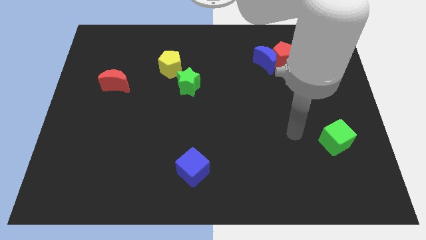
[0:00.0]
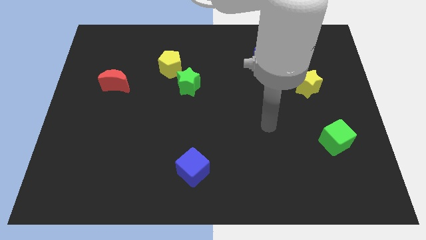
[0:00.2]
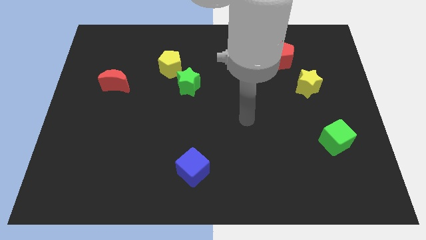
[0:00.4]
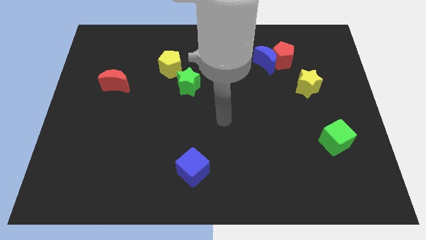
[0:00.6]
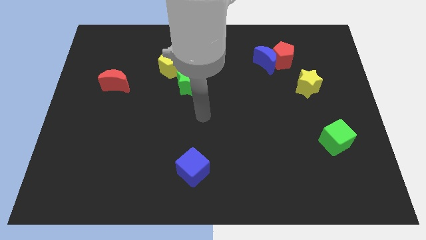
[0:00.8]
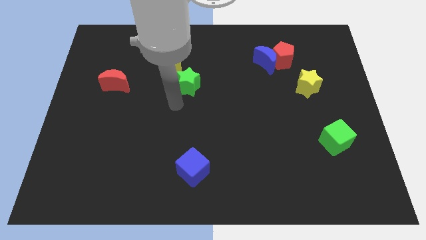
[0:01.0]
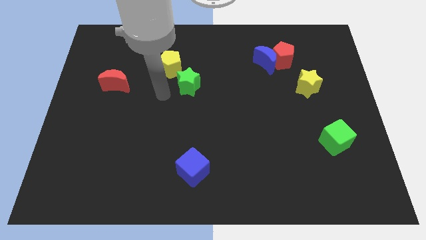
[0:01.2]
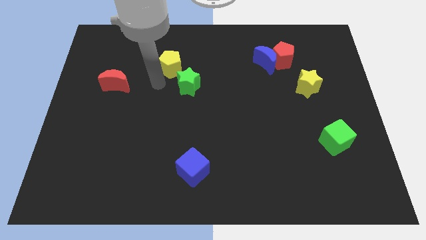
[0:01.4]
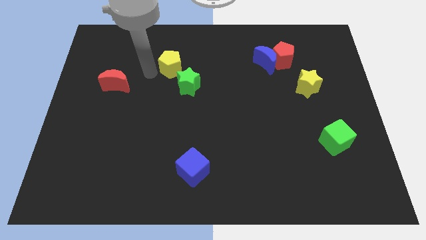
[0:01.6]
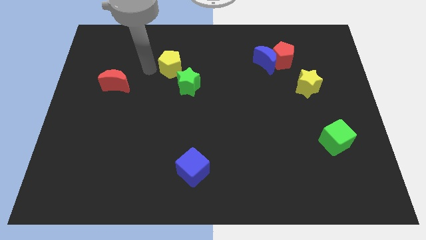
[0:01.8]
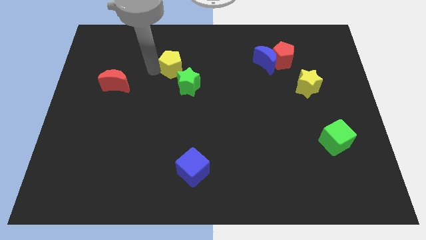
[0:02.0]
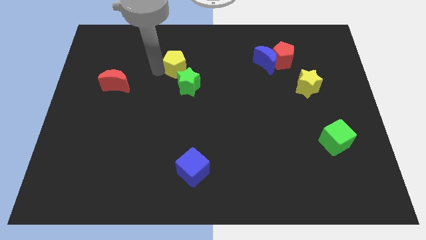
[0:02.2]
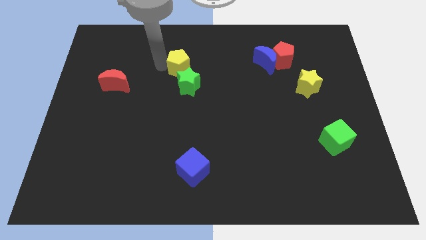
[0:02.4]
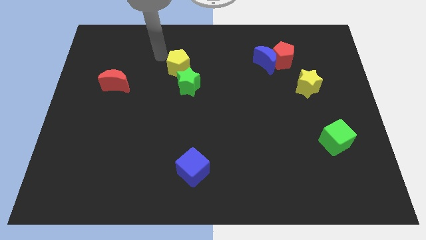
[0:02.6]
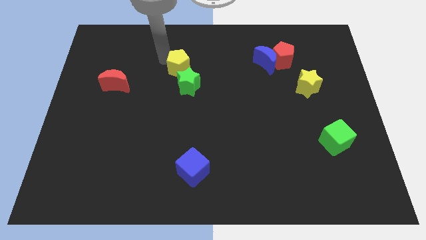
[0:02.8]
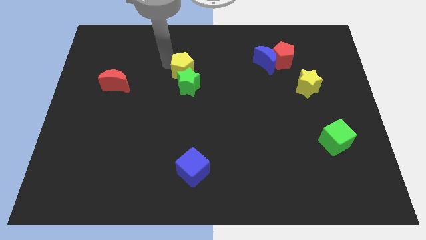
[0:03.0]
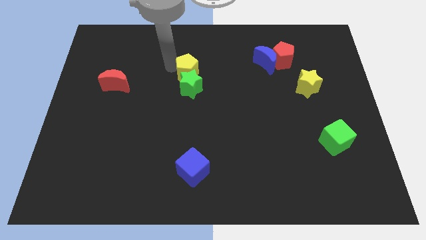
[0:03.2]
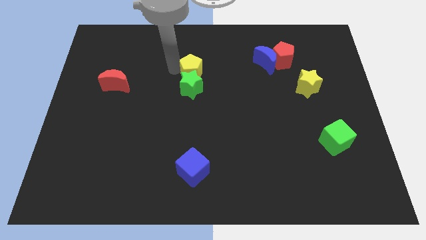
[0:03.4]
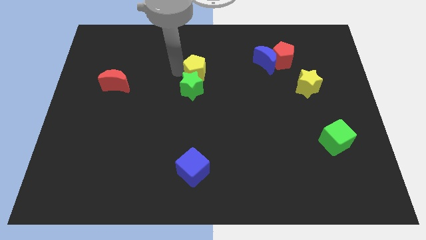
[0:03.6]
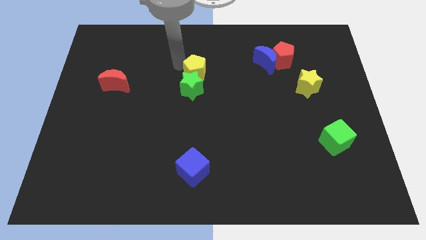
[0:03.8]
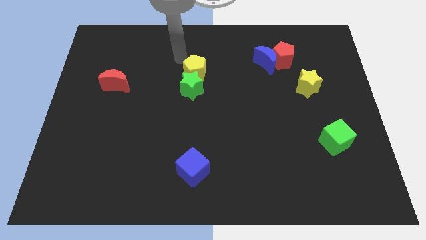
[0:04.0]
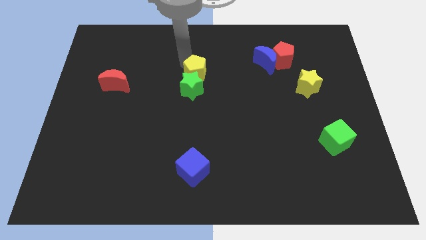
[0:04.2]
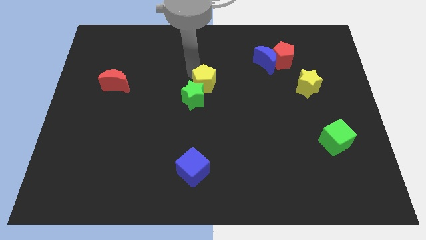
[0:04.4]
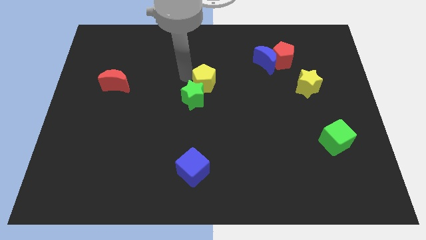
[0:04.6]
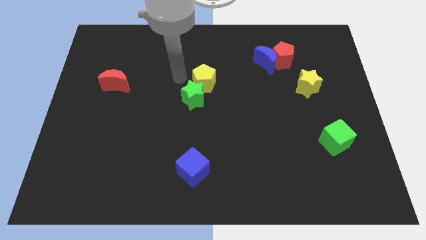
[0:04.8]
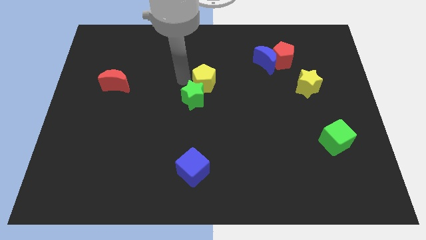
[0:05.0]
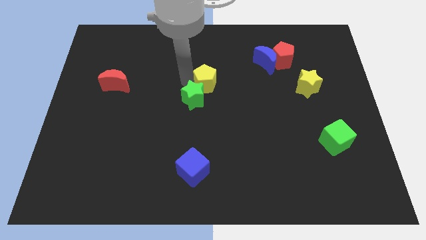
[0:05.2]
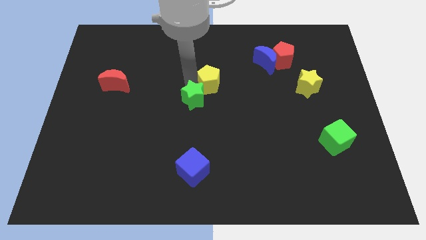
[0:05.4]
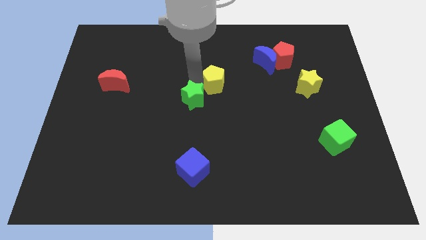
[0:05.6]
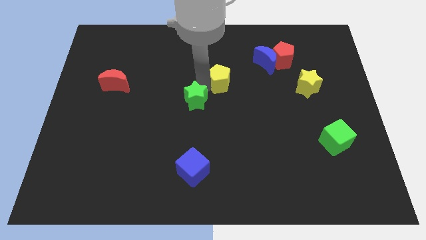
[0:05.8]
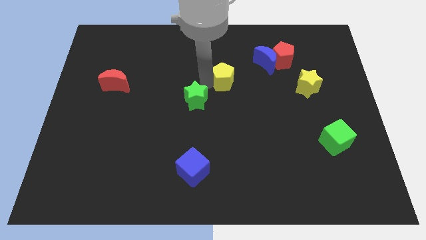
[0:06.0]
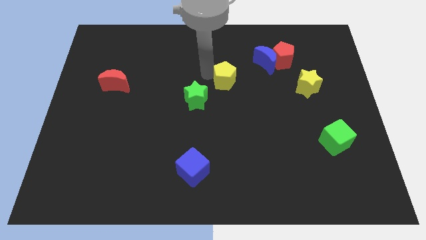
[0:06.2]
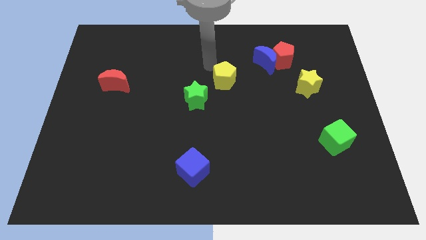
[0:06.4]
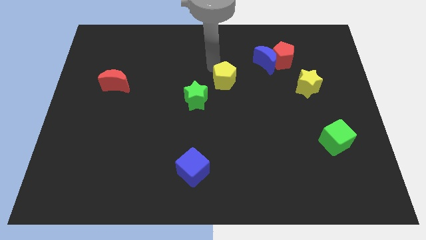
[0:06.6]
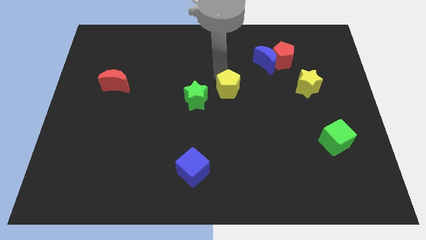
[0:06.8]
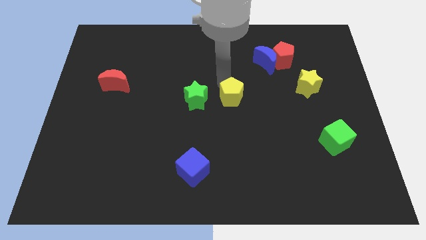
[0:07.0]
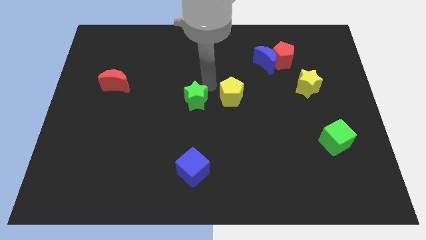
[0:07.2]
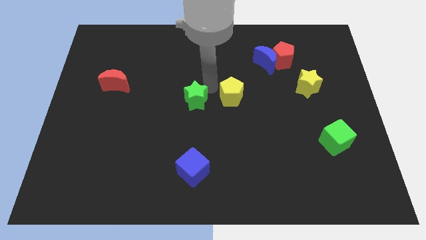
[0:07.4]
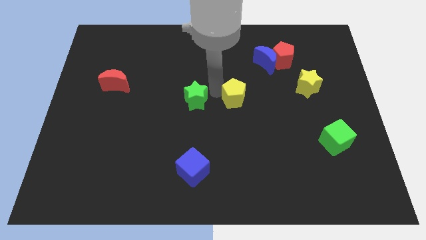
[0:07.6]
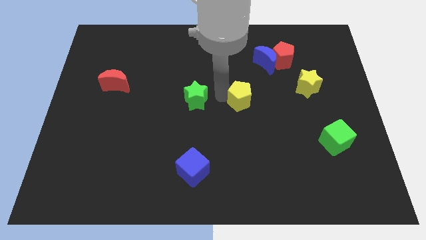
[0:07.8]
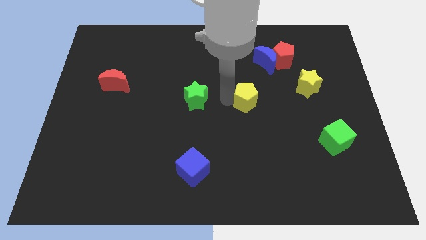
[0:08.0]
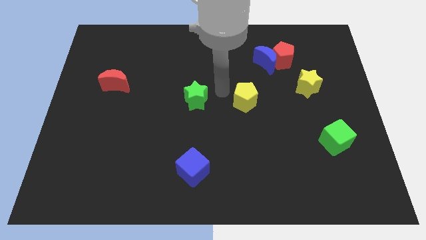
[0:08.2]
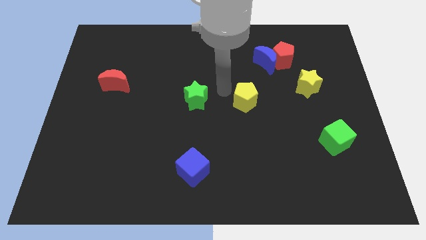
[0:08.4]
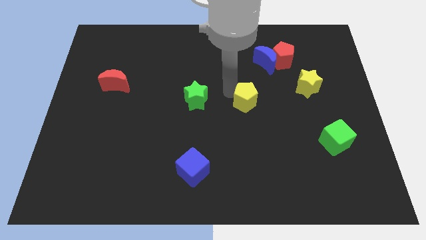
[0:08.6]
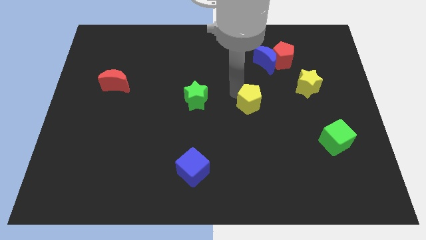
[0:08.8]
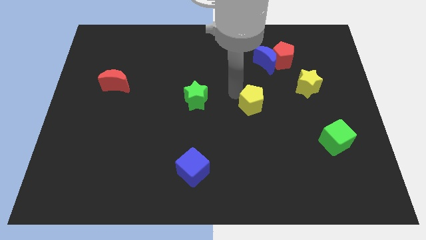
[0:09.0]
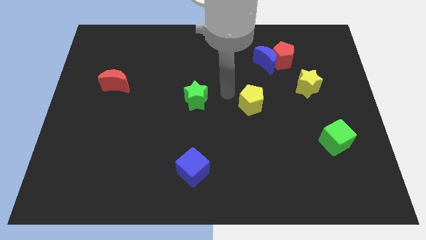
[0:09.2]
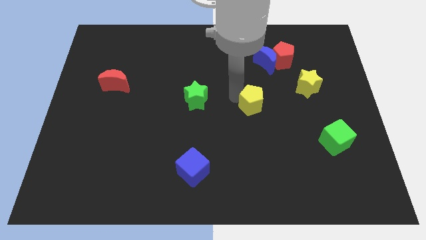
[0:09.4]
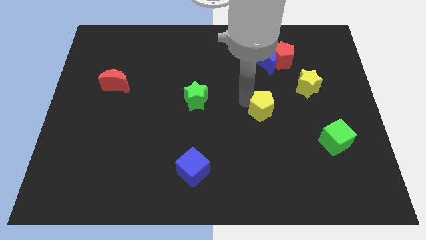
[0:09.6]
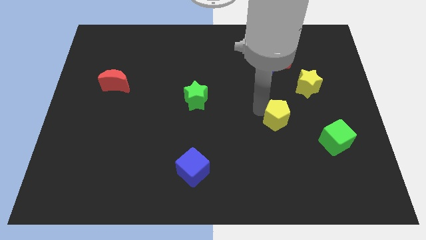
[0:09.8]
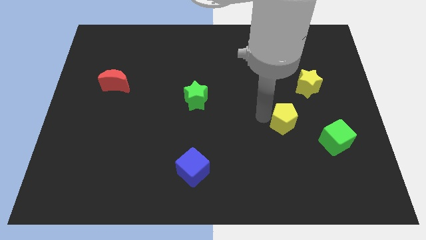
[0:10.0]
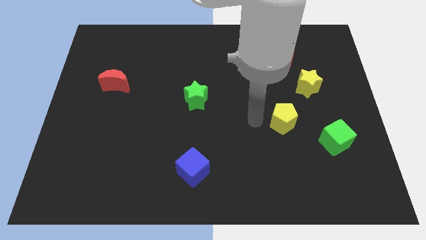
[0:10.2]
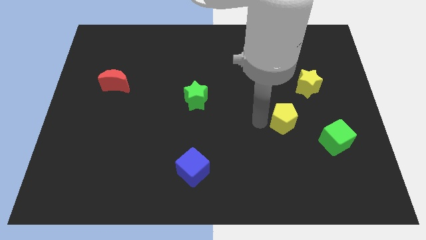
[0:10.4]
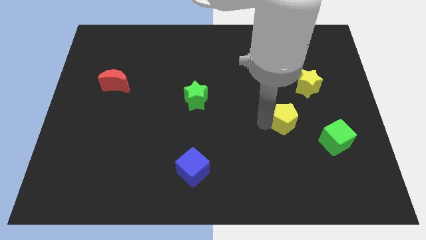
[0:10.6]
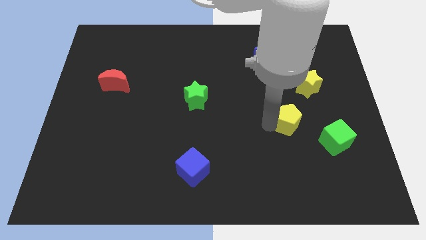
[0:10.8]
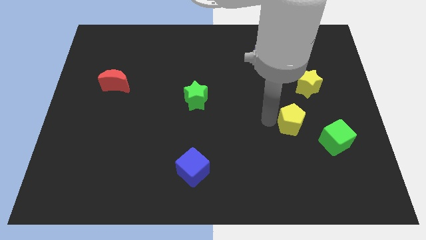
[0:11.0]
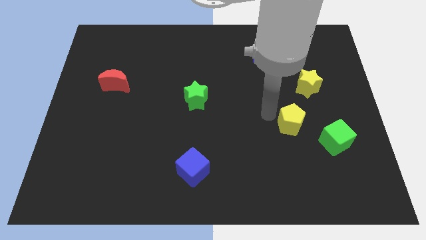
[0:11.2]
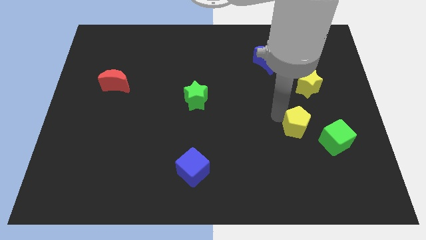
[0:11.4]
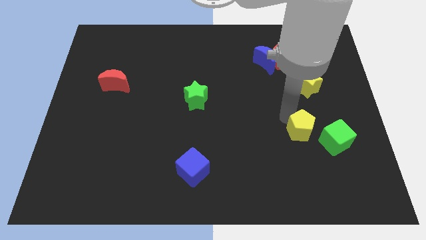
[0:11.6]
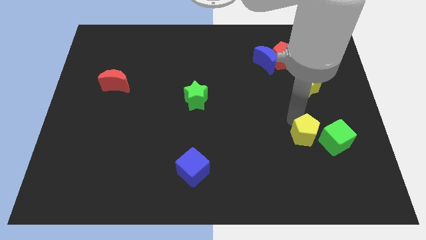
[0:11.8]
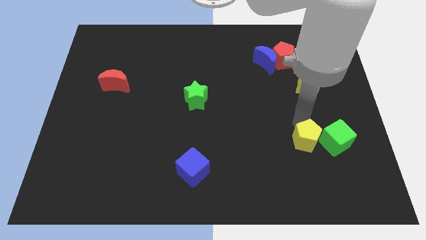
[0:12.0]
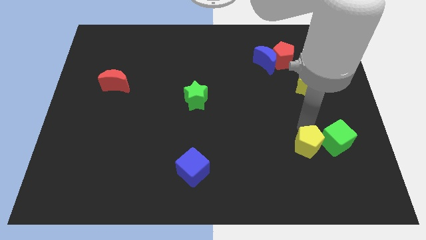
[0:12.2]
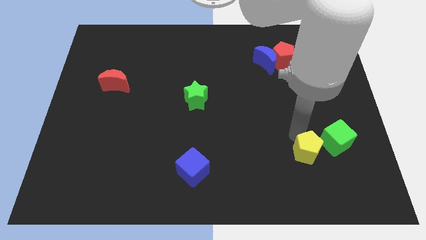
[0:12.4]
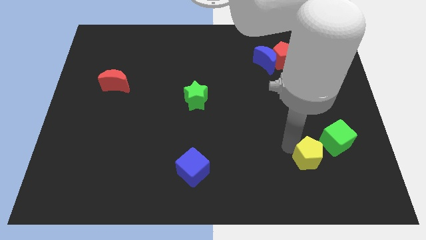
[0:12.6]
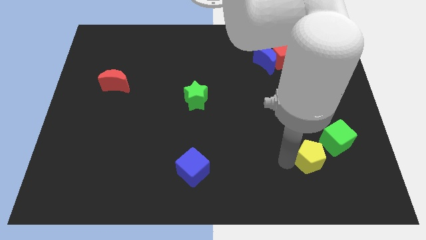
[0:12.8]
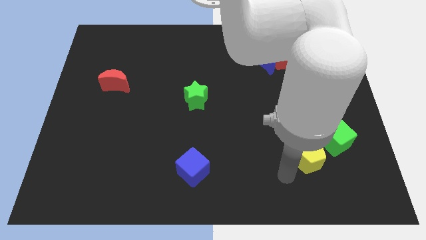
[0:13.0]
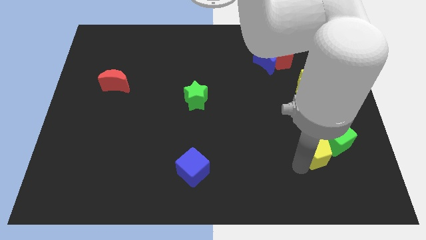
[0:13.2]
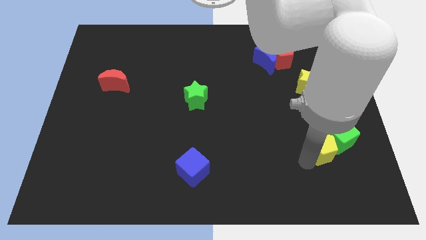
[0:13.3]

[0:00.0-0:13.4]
slide the yellow pentagon close to the green cube

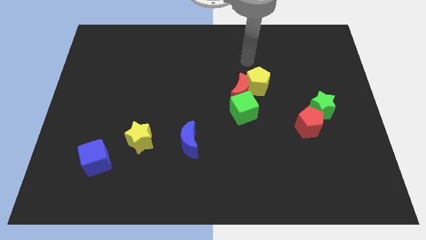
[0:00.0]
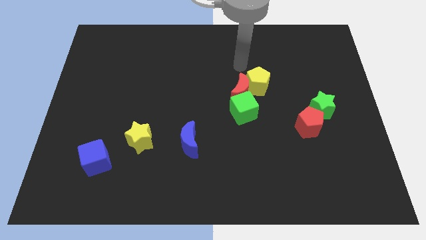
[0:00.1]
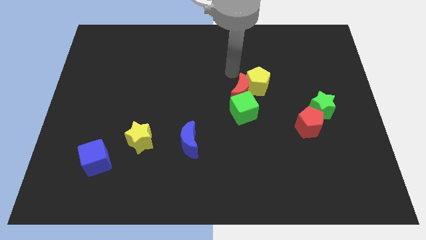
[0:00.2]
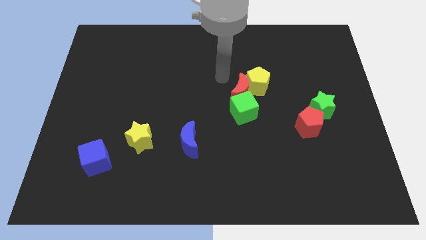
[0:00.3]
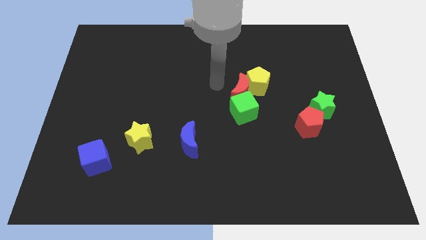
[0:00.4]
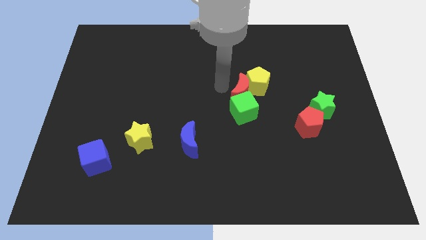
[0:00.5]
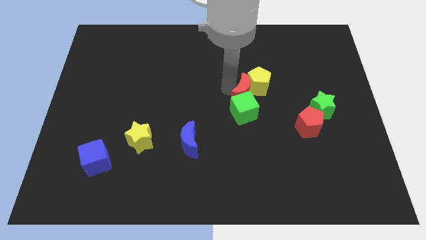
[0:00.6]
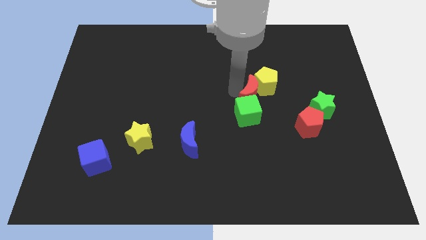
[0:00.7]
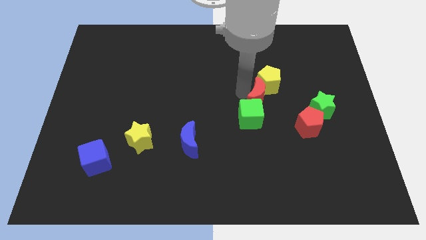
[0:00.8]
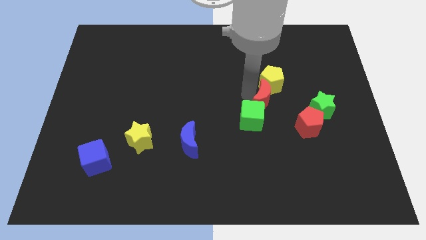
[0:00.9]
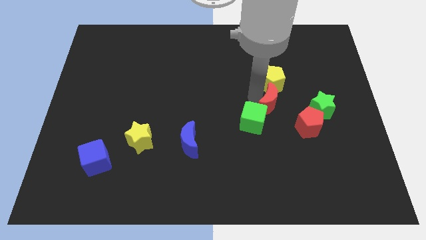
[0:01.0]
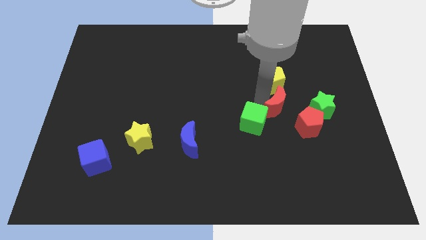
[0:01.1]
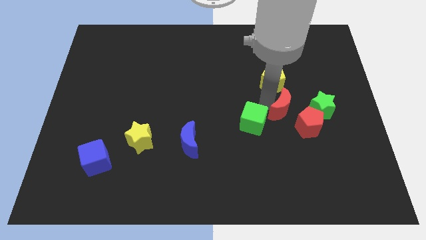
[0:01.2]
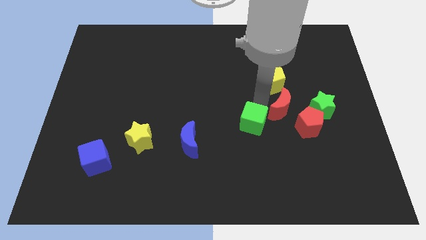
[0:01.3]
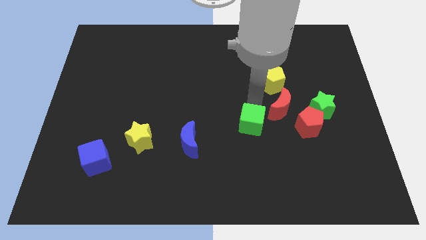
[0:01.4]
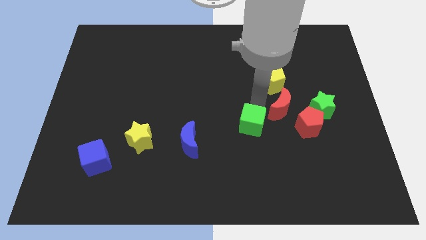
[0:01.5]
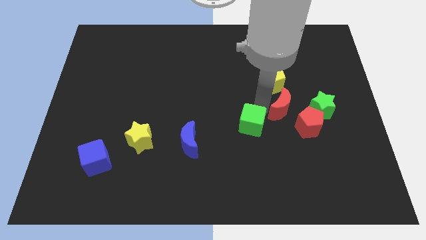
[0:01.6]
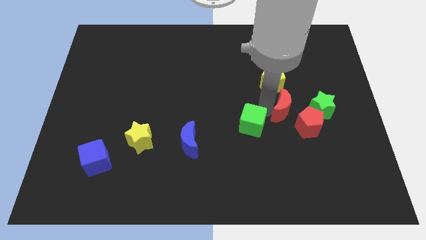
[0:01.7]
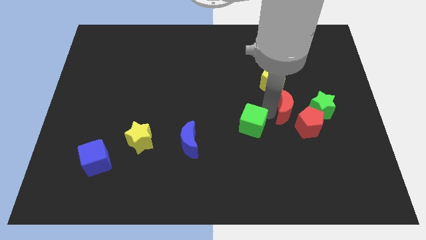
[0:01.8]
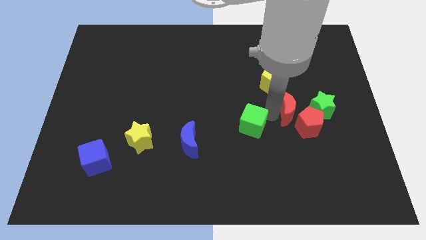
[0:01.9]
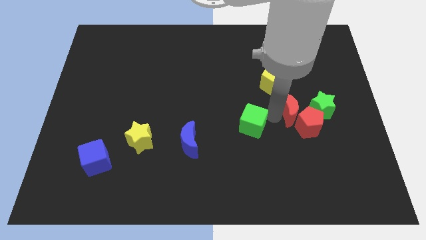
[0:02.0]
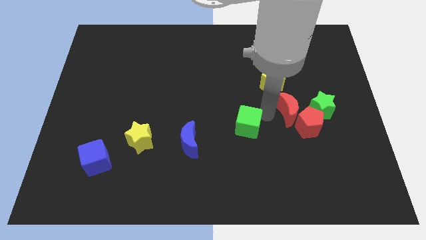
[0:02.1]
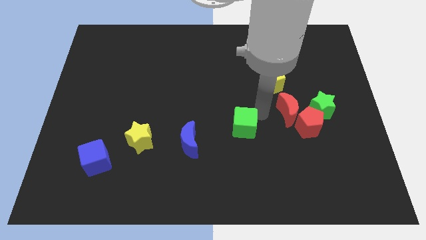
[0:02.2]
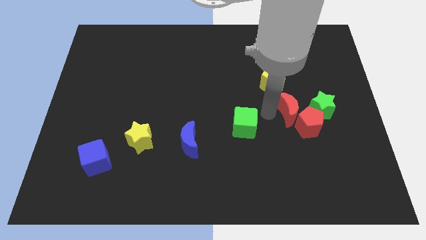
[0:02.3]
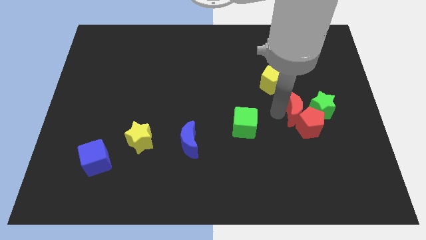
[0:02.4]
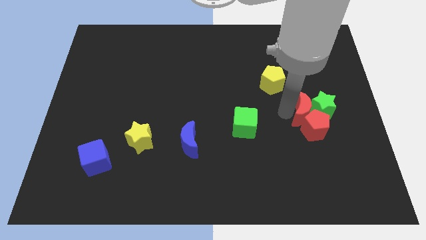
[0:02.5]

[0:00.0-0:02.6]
push the red moon next to the green star
